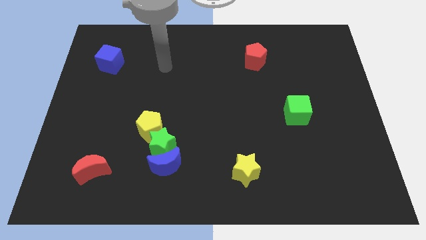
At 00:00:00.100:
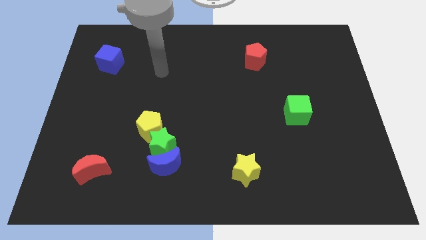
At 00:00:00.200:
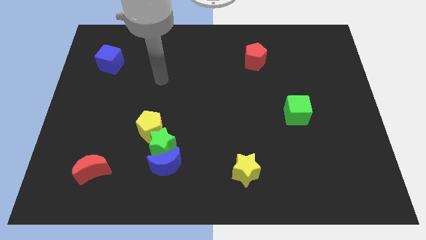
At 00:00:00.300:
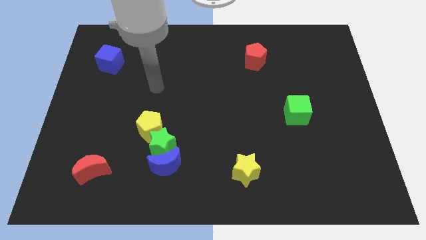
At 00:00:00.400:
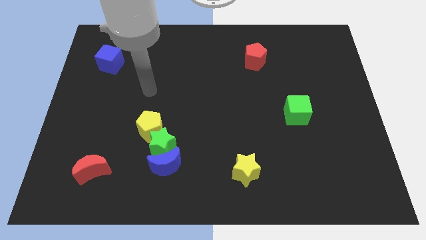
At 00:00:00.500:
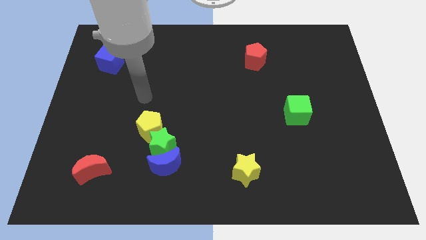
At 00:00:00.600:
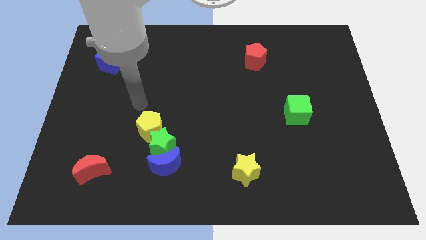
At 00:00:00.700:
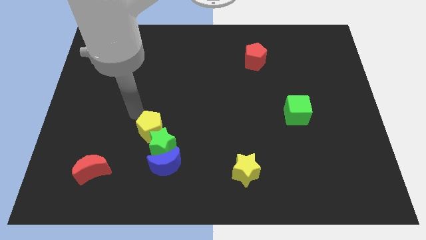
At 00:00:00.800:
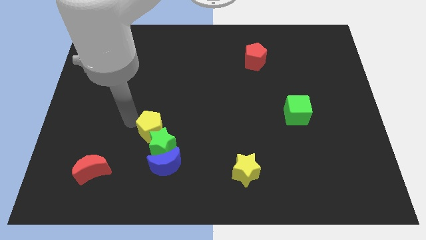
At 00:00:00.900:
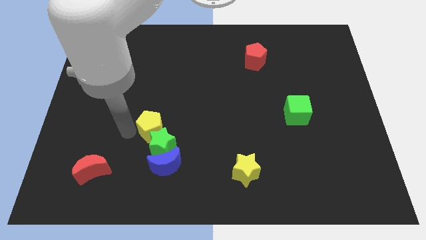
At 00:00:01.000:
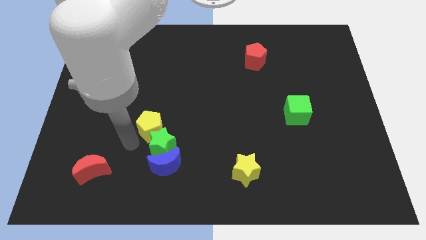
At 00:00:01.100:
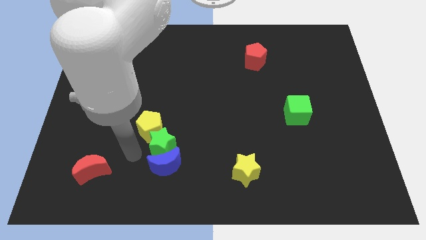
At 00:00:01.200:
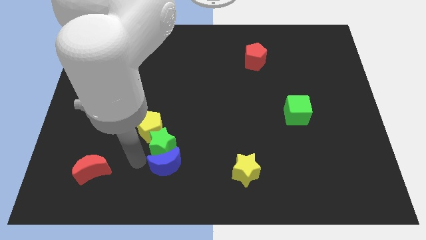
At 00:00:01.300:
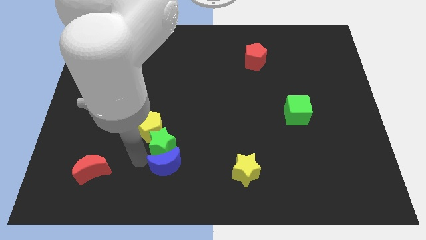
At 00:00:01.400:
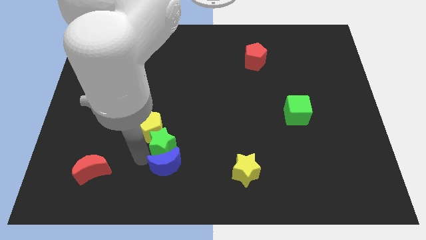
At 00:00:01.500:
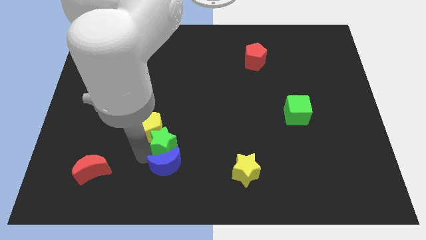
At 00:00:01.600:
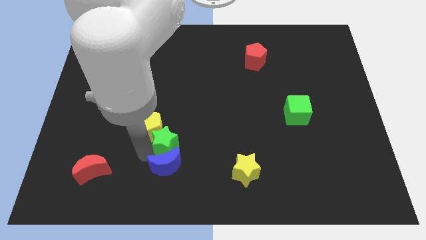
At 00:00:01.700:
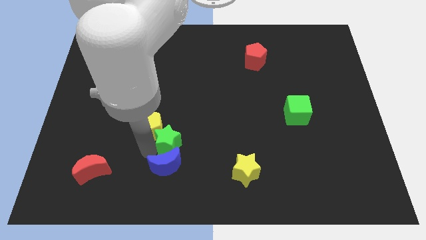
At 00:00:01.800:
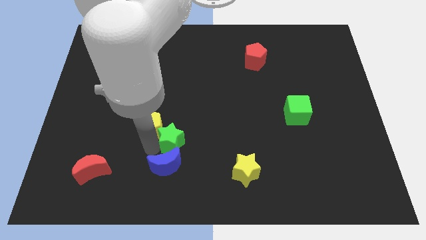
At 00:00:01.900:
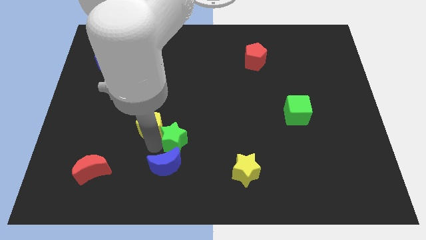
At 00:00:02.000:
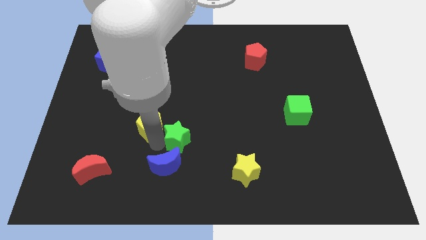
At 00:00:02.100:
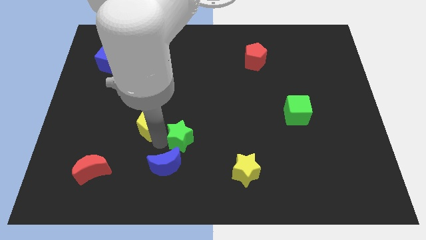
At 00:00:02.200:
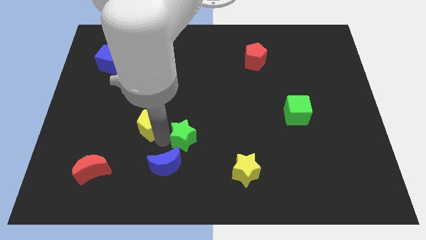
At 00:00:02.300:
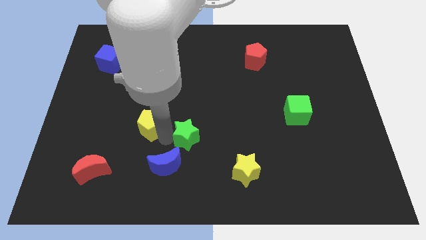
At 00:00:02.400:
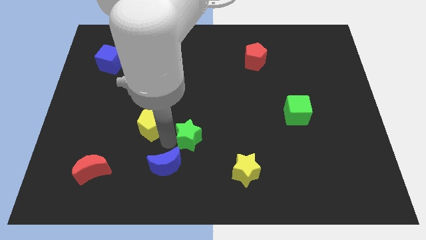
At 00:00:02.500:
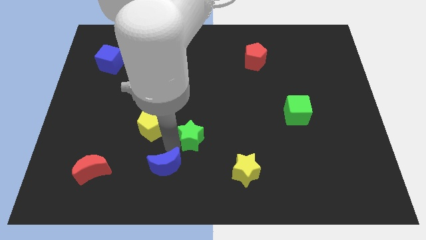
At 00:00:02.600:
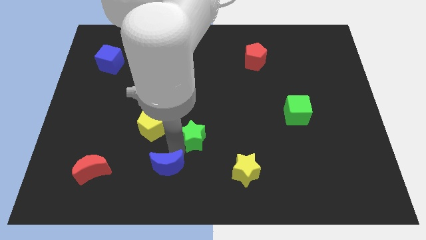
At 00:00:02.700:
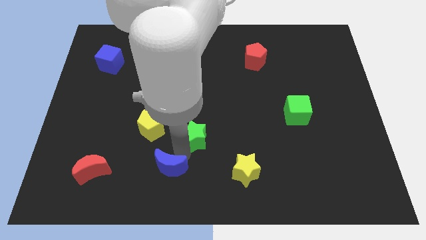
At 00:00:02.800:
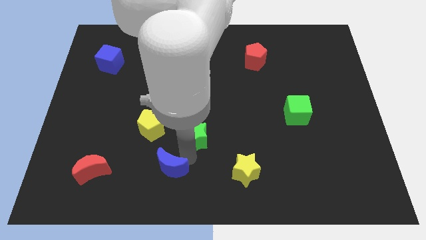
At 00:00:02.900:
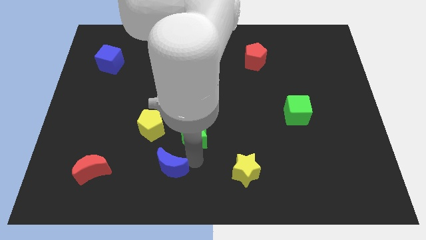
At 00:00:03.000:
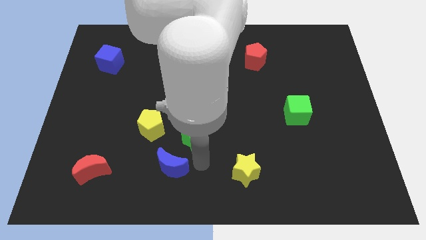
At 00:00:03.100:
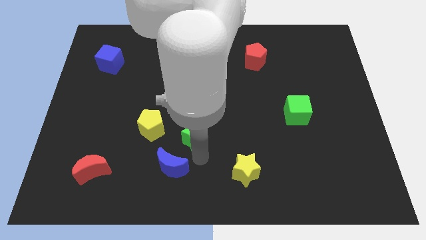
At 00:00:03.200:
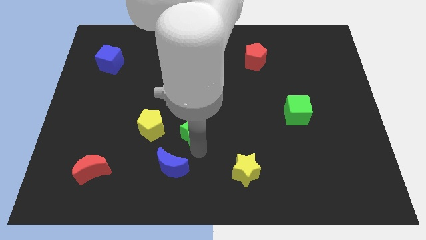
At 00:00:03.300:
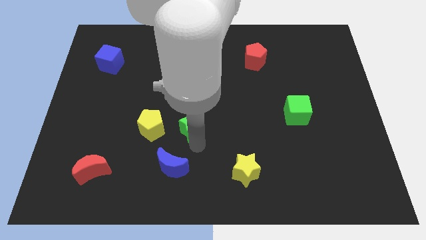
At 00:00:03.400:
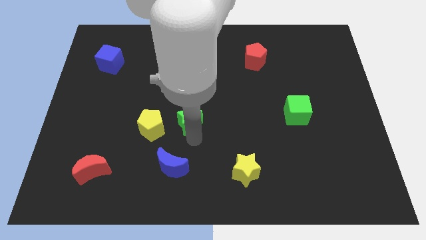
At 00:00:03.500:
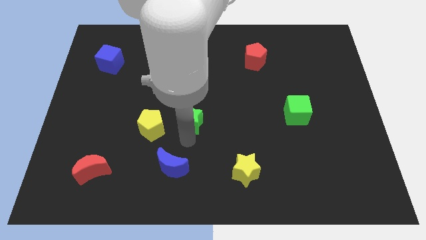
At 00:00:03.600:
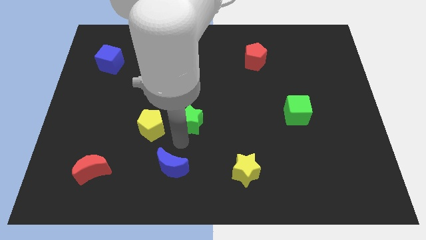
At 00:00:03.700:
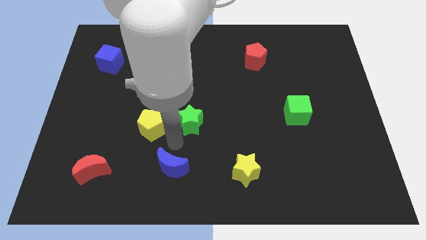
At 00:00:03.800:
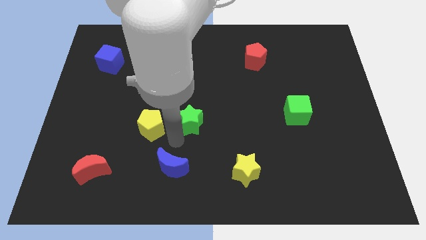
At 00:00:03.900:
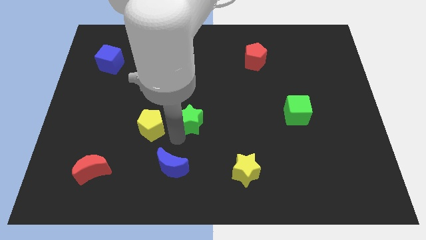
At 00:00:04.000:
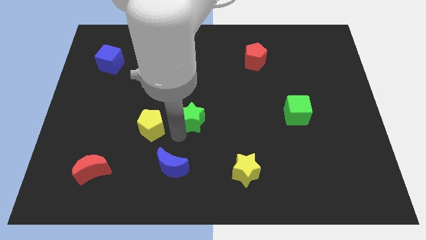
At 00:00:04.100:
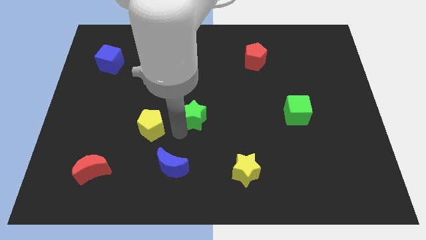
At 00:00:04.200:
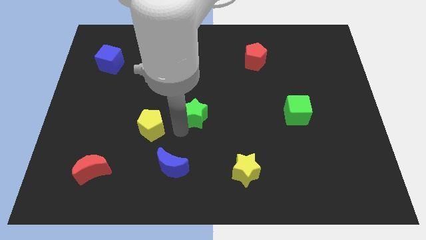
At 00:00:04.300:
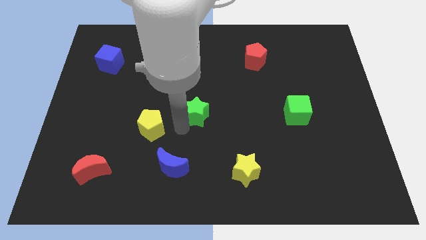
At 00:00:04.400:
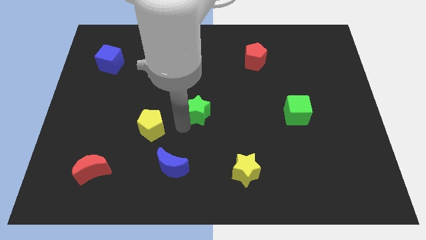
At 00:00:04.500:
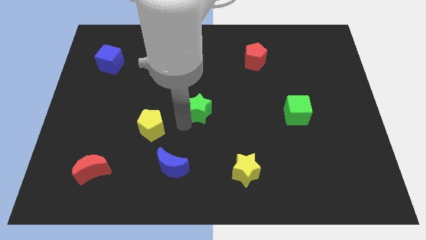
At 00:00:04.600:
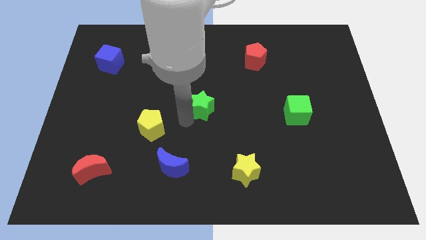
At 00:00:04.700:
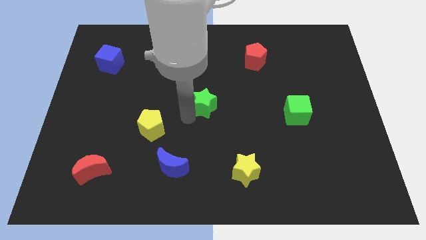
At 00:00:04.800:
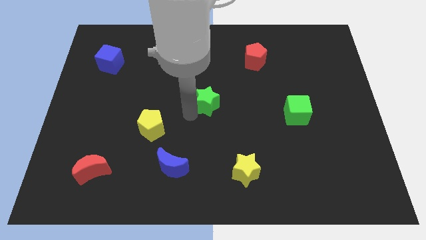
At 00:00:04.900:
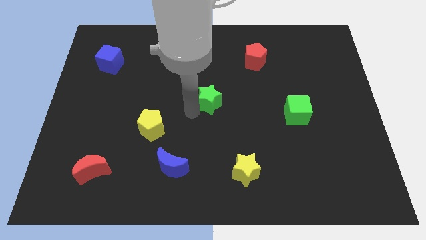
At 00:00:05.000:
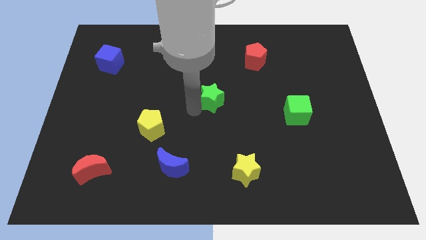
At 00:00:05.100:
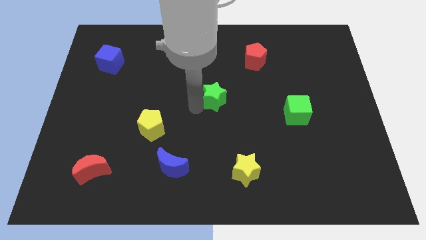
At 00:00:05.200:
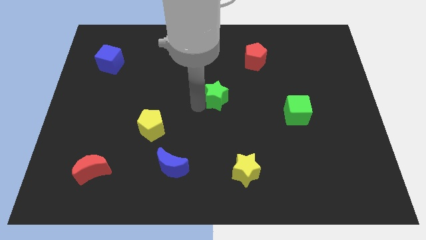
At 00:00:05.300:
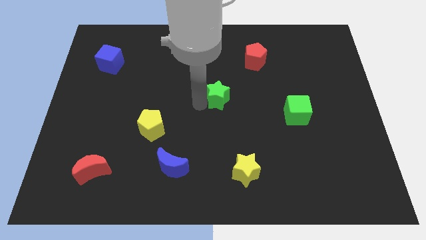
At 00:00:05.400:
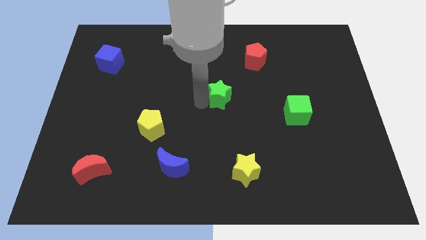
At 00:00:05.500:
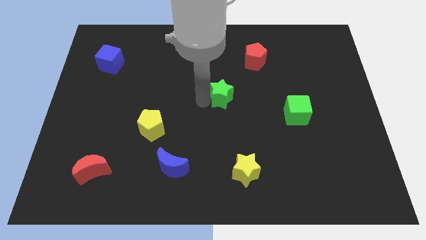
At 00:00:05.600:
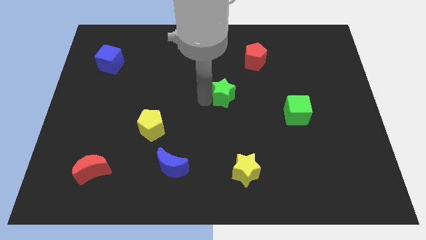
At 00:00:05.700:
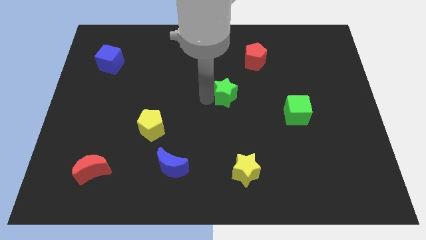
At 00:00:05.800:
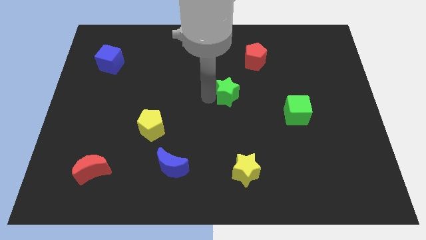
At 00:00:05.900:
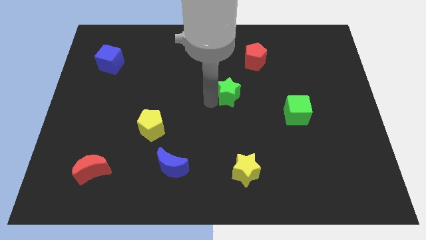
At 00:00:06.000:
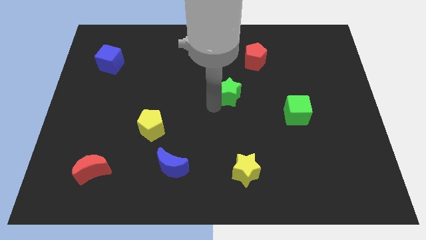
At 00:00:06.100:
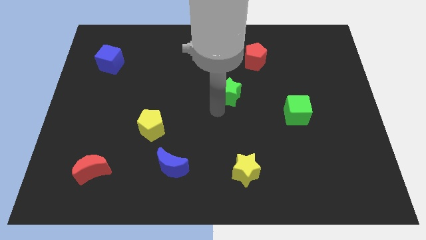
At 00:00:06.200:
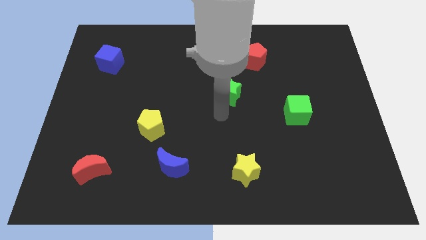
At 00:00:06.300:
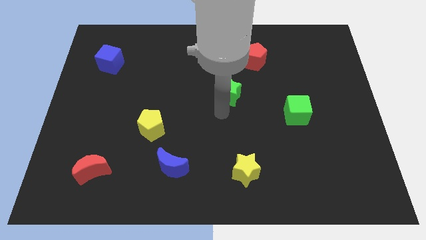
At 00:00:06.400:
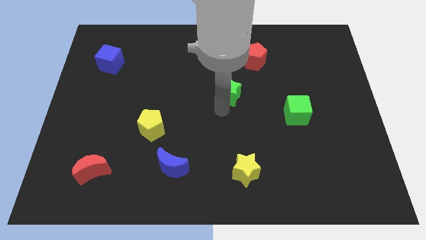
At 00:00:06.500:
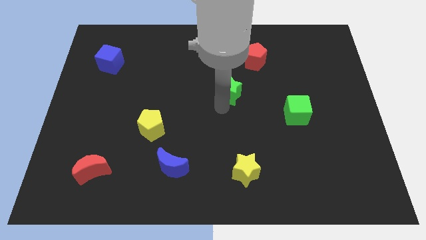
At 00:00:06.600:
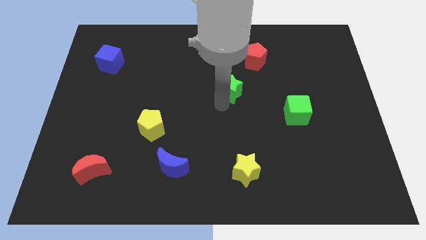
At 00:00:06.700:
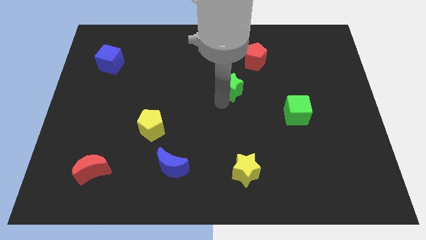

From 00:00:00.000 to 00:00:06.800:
slide the green star to the bottom left side of the red pentagon
